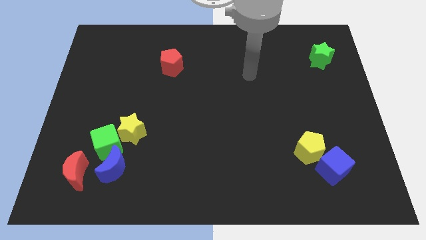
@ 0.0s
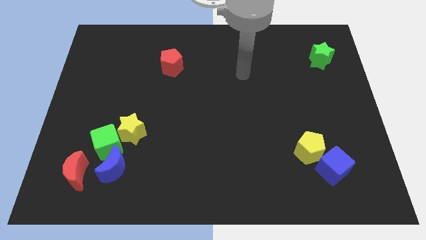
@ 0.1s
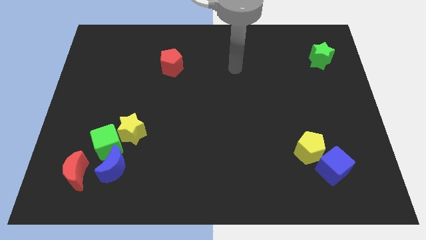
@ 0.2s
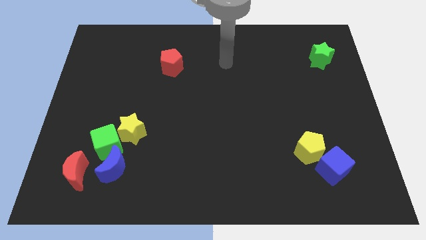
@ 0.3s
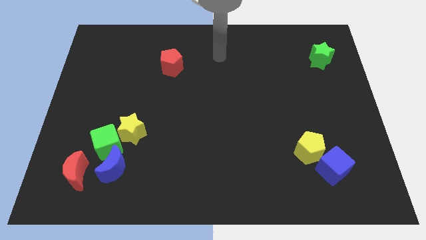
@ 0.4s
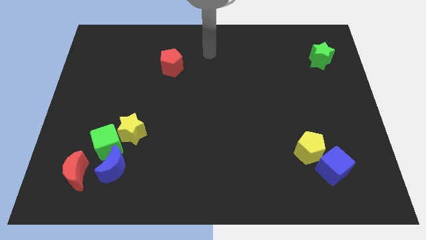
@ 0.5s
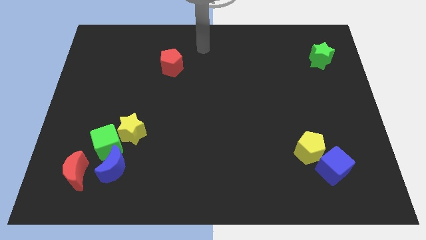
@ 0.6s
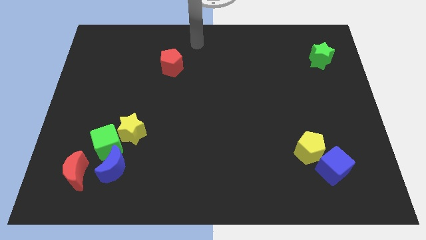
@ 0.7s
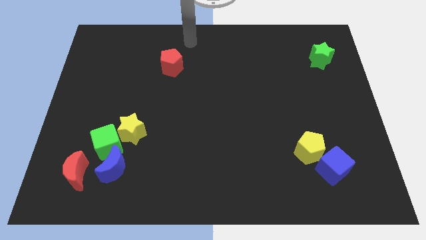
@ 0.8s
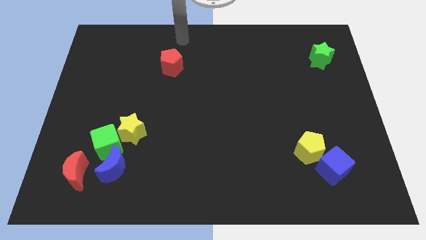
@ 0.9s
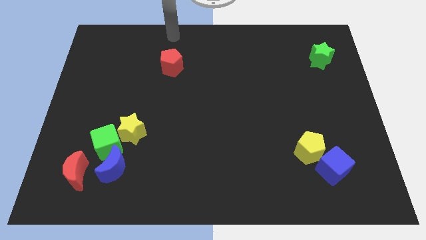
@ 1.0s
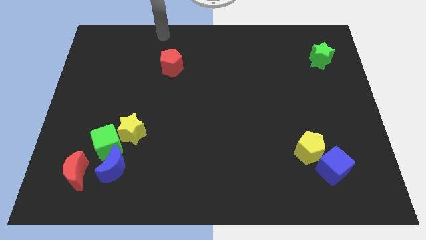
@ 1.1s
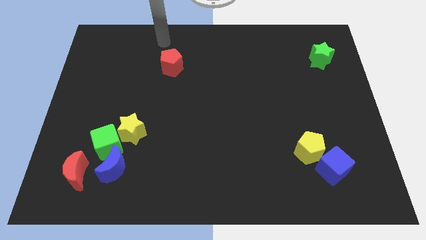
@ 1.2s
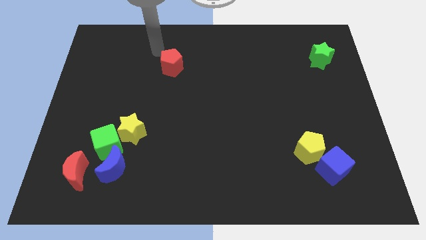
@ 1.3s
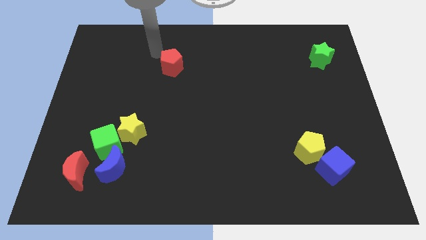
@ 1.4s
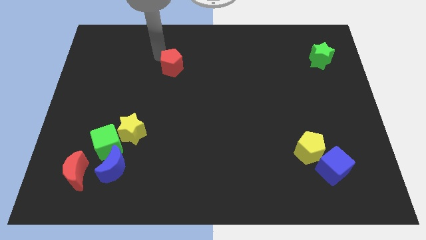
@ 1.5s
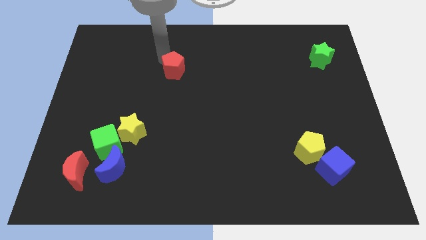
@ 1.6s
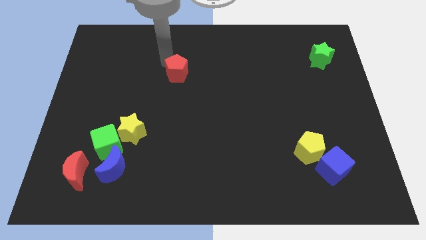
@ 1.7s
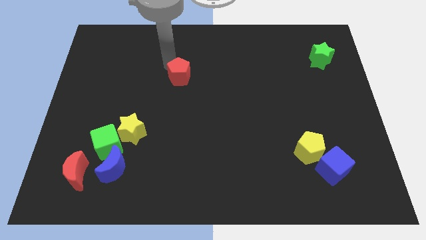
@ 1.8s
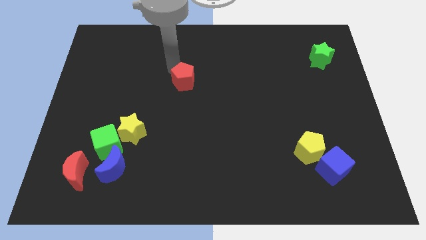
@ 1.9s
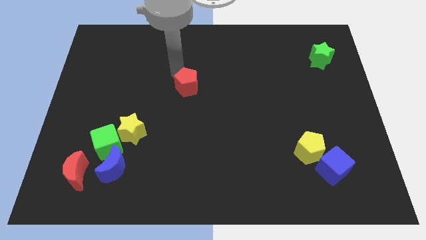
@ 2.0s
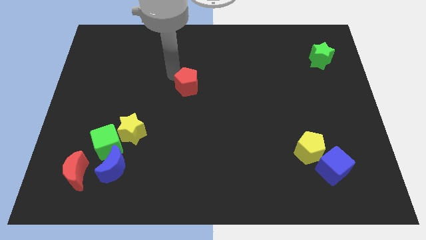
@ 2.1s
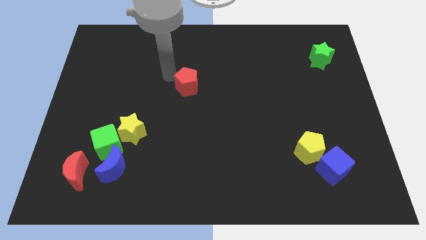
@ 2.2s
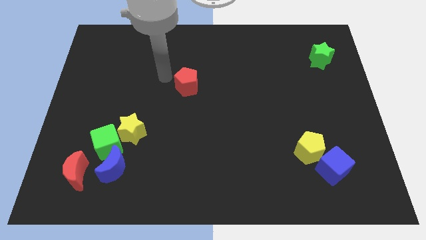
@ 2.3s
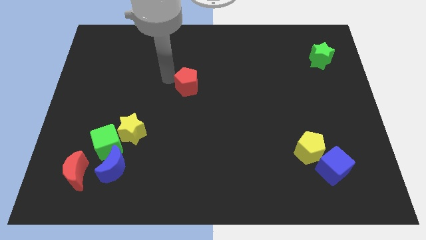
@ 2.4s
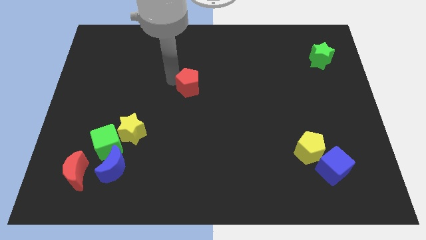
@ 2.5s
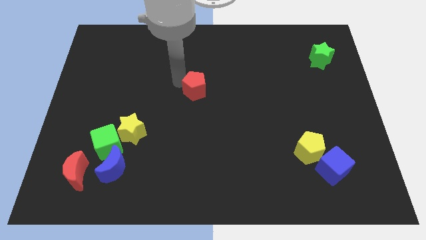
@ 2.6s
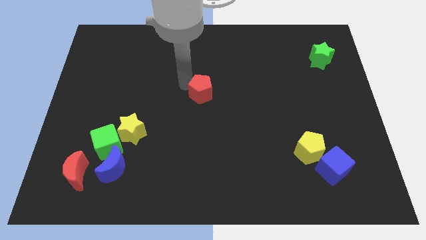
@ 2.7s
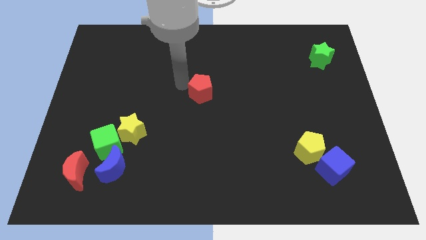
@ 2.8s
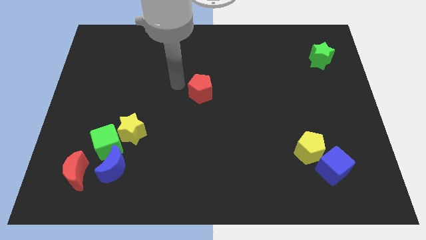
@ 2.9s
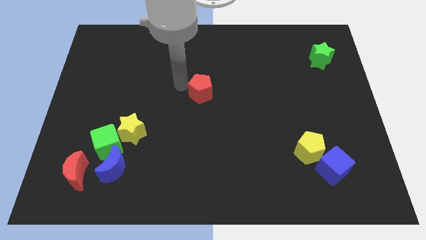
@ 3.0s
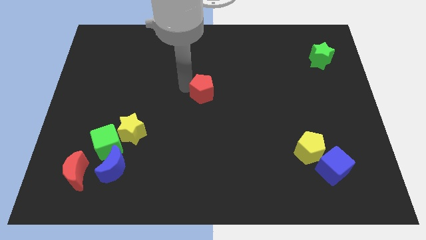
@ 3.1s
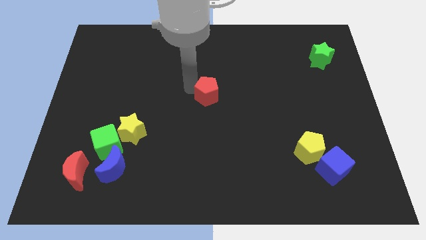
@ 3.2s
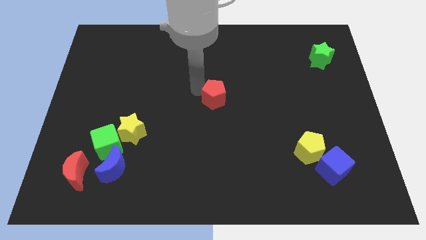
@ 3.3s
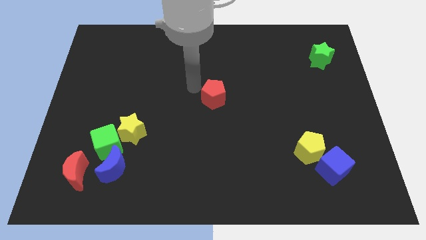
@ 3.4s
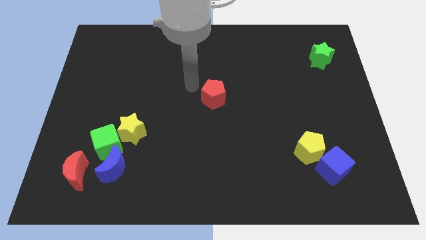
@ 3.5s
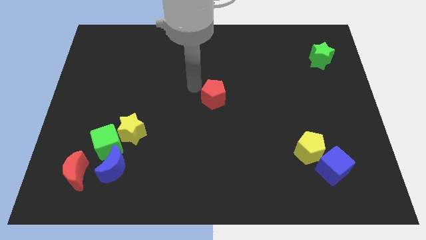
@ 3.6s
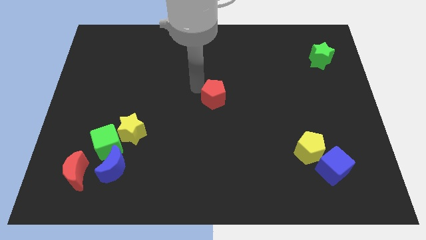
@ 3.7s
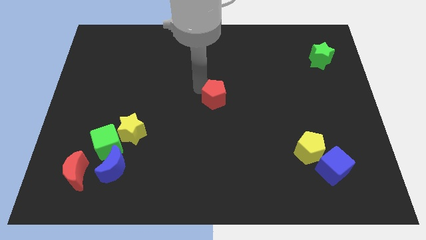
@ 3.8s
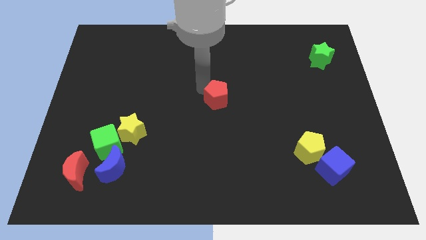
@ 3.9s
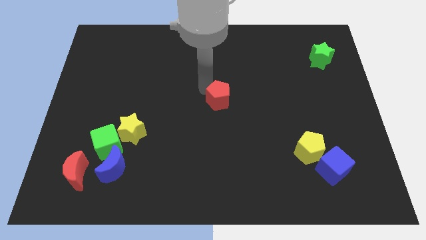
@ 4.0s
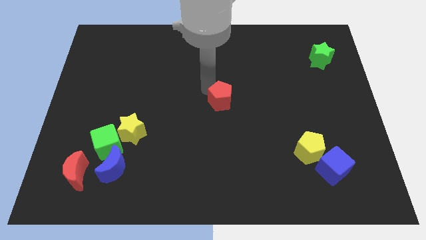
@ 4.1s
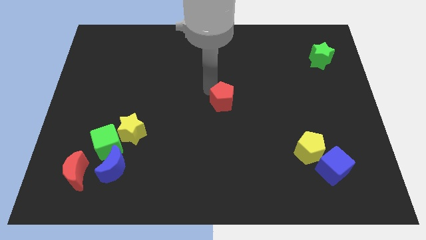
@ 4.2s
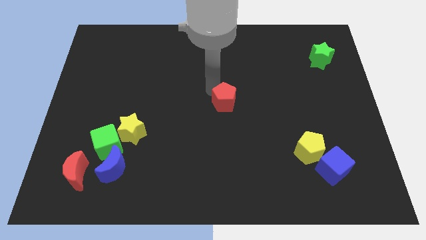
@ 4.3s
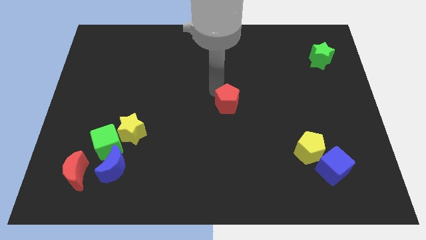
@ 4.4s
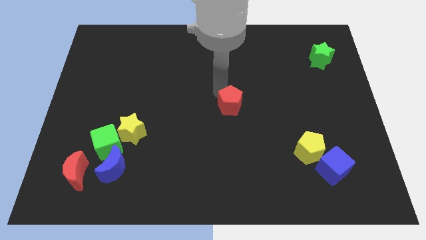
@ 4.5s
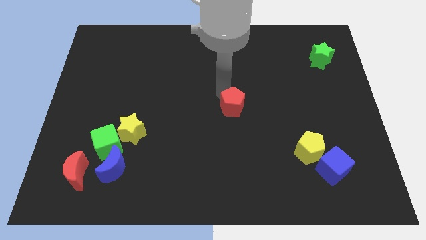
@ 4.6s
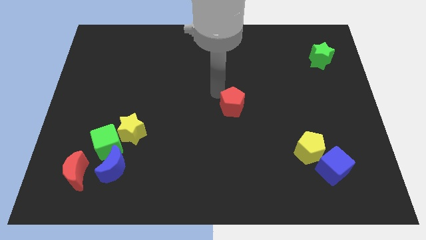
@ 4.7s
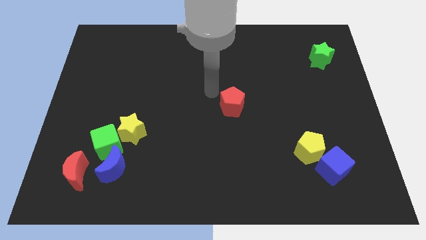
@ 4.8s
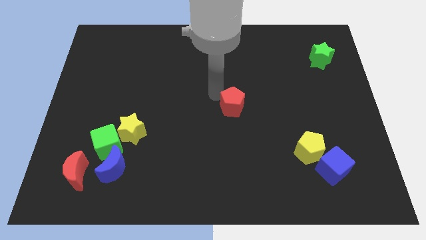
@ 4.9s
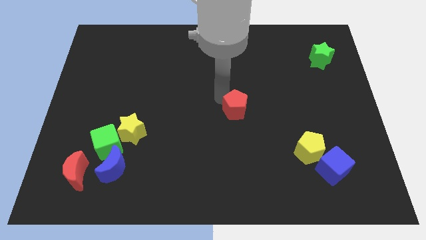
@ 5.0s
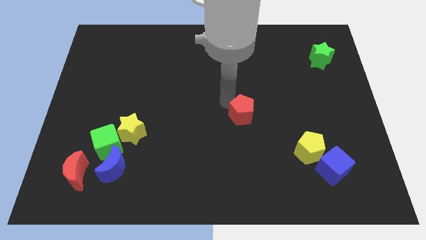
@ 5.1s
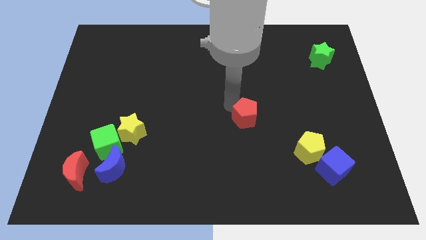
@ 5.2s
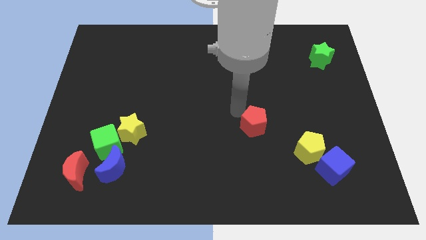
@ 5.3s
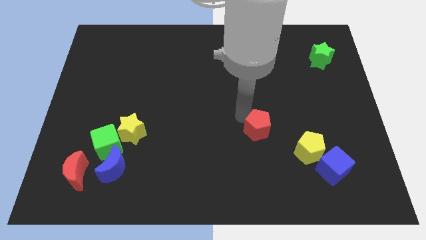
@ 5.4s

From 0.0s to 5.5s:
put the red pentagon to the top left of the yellow pentagon

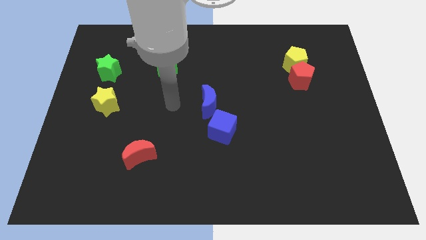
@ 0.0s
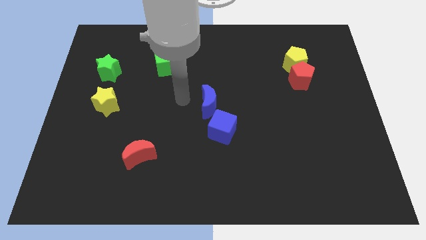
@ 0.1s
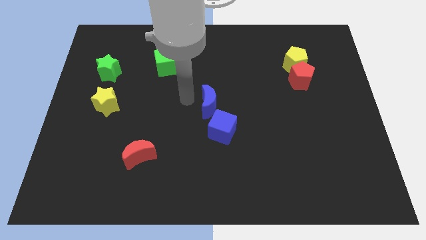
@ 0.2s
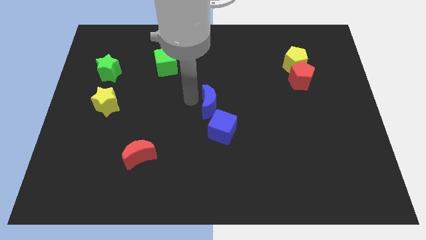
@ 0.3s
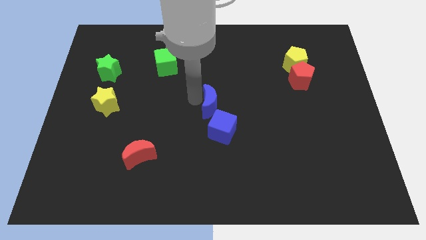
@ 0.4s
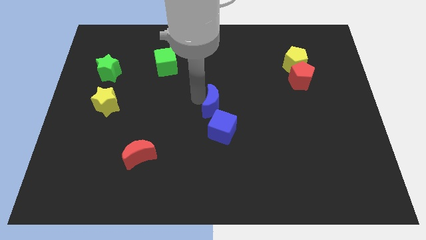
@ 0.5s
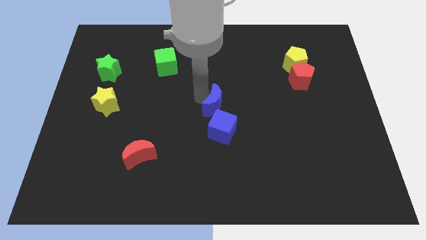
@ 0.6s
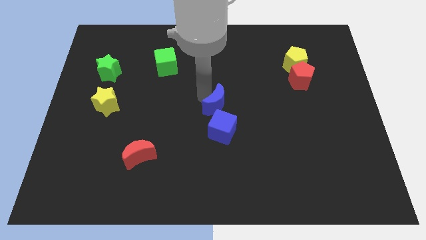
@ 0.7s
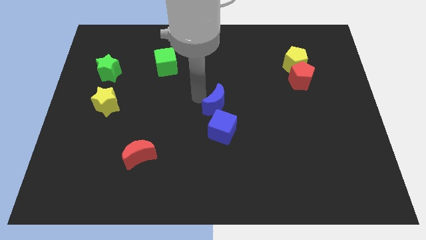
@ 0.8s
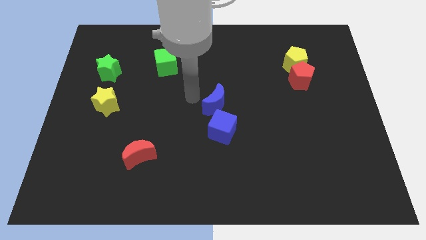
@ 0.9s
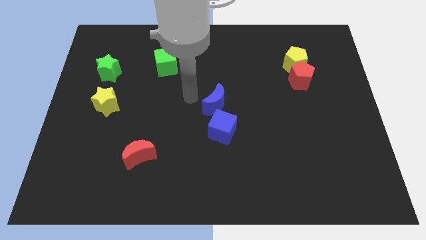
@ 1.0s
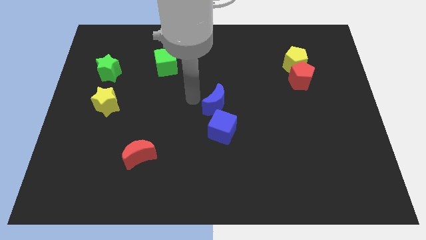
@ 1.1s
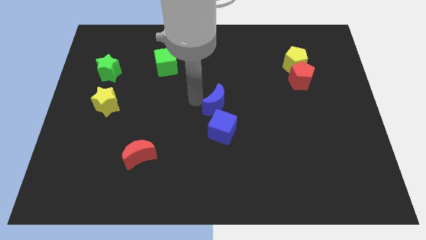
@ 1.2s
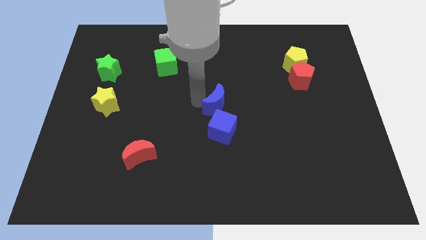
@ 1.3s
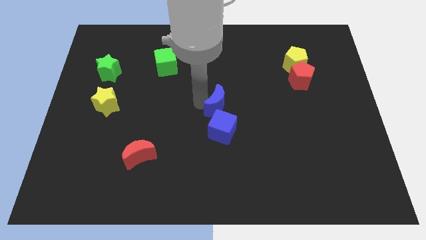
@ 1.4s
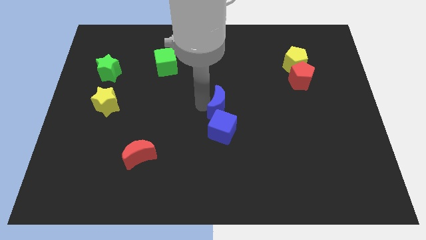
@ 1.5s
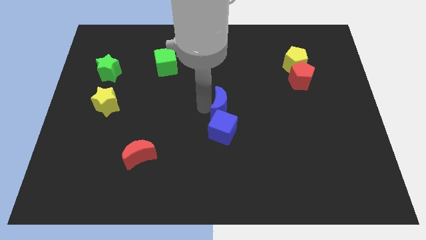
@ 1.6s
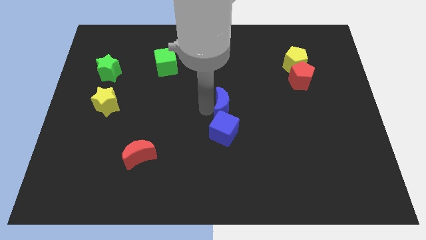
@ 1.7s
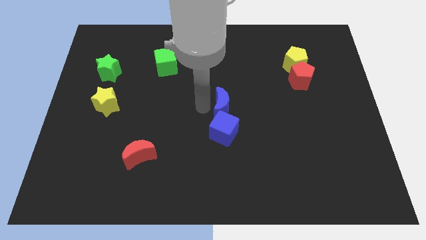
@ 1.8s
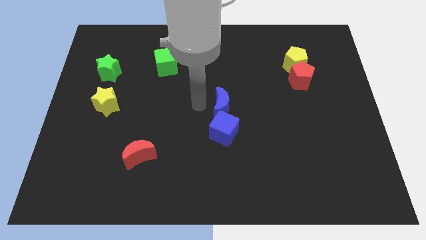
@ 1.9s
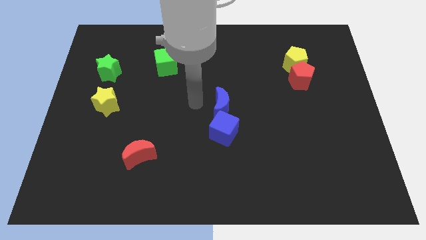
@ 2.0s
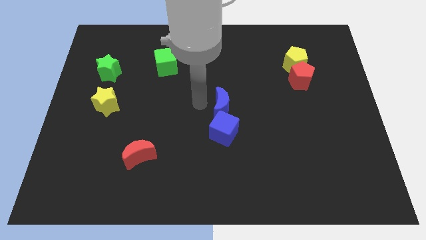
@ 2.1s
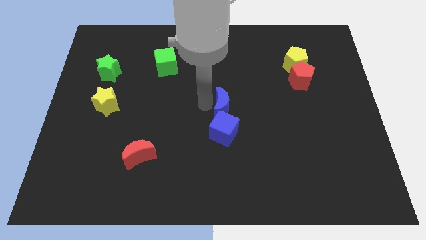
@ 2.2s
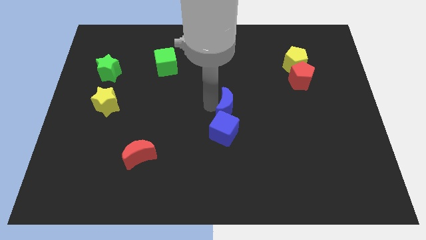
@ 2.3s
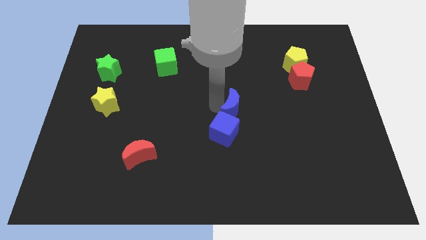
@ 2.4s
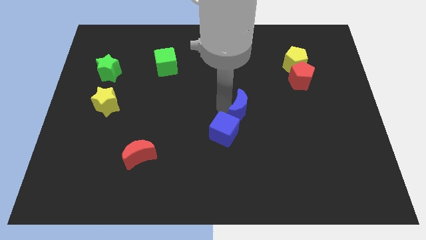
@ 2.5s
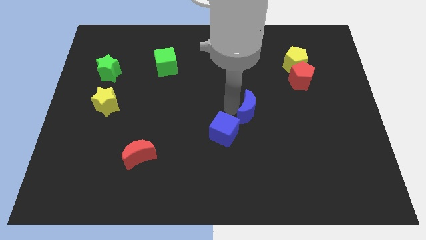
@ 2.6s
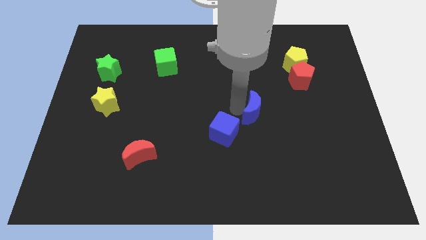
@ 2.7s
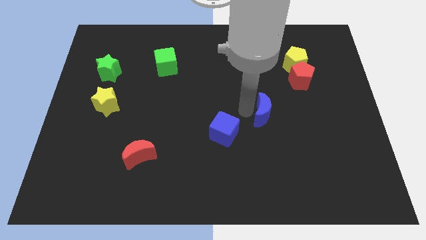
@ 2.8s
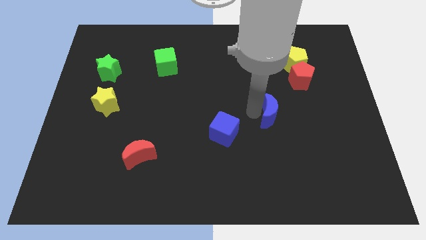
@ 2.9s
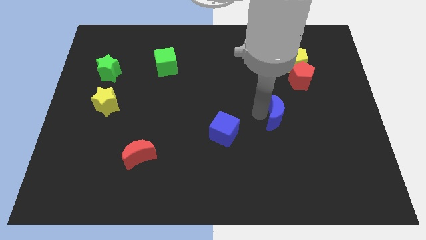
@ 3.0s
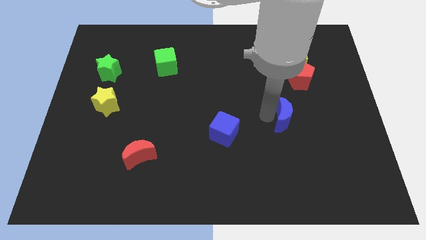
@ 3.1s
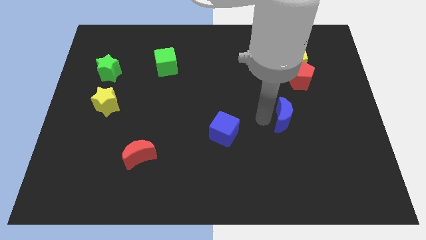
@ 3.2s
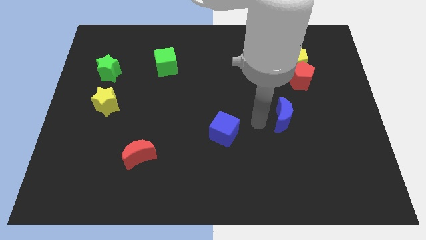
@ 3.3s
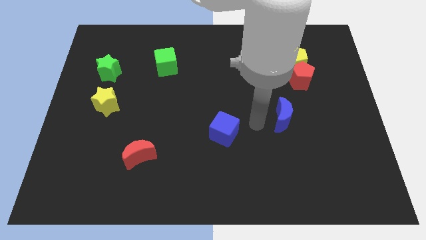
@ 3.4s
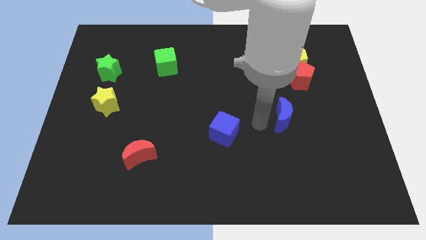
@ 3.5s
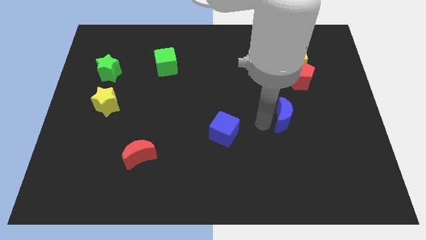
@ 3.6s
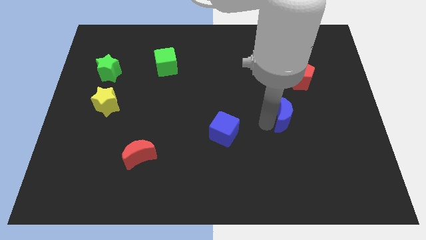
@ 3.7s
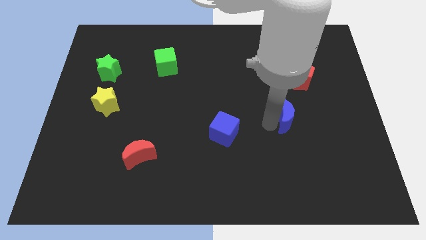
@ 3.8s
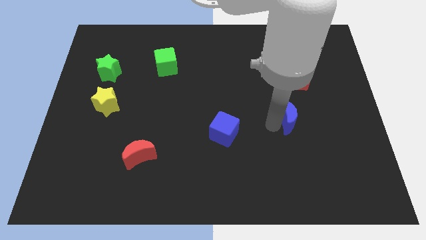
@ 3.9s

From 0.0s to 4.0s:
slide the blue moon below the red pentagon
